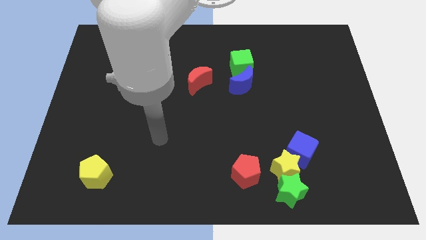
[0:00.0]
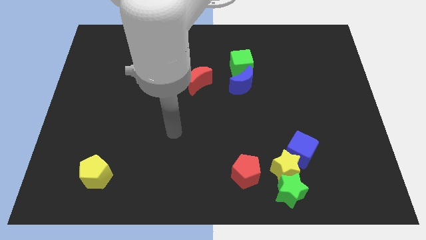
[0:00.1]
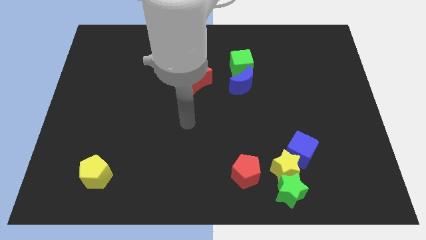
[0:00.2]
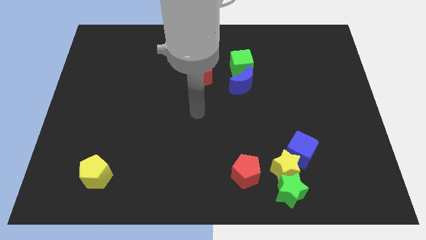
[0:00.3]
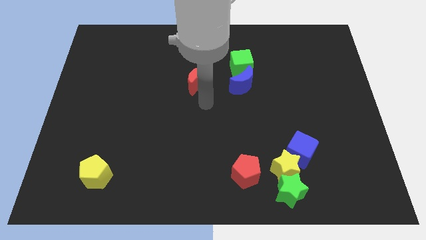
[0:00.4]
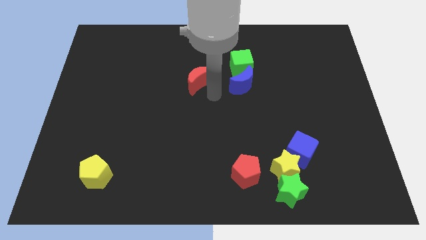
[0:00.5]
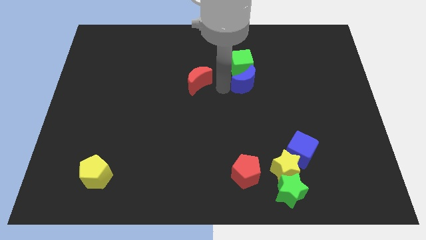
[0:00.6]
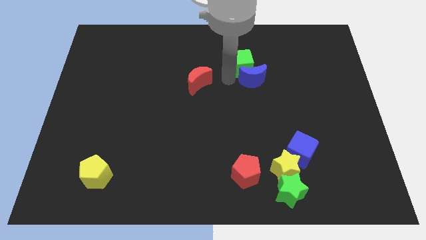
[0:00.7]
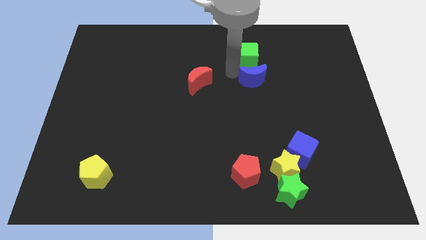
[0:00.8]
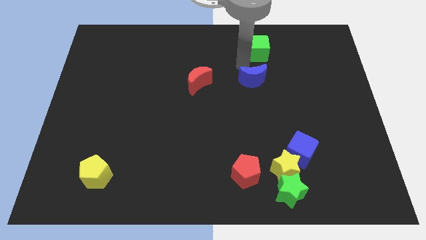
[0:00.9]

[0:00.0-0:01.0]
move the blue moon away from the green cube

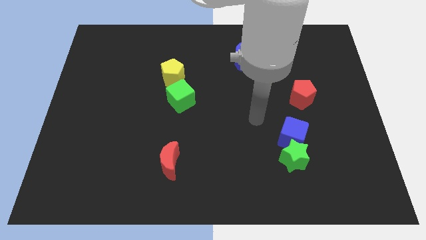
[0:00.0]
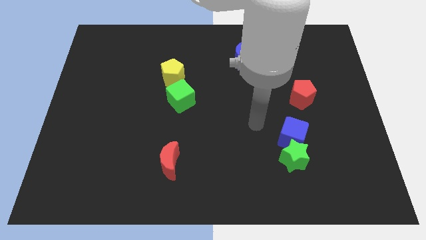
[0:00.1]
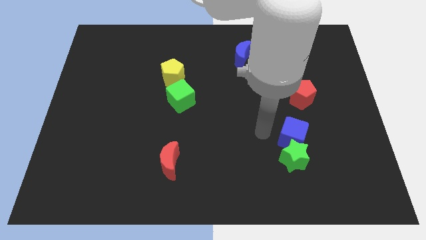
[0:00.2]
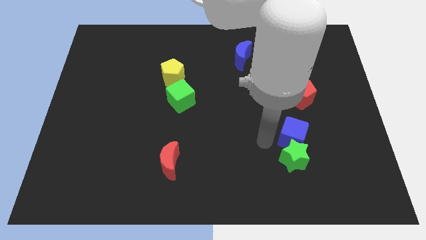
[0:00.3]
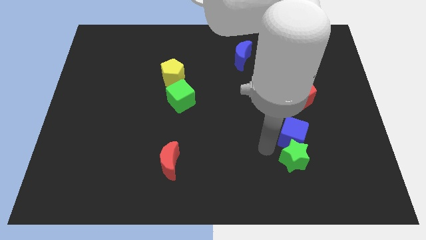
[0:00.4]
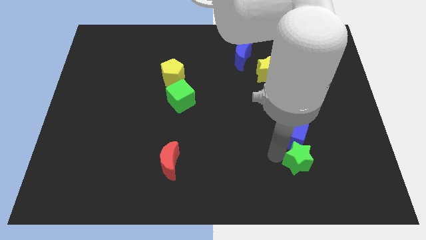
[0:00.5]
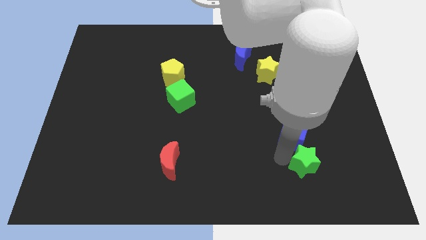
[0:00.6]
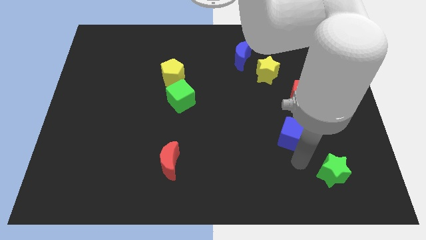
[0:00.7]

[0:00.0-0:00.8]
separate the blue cube from the green star

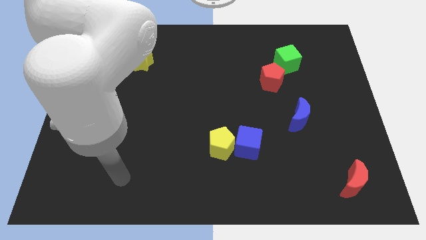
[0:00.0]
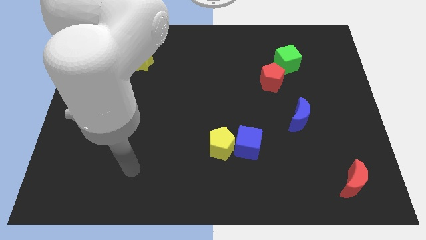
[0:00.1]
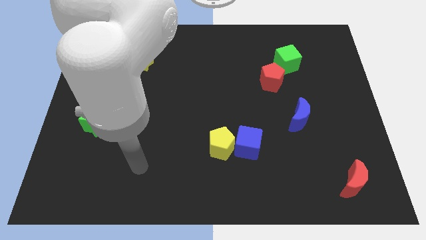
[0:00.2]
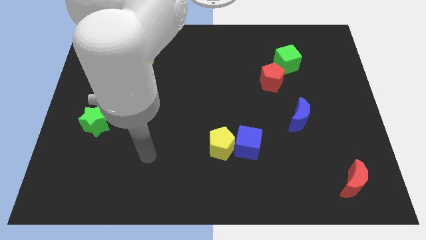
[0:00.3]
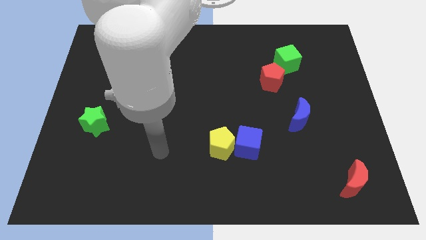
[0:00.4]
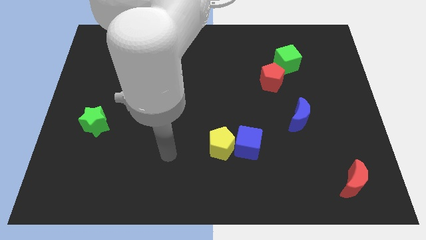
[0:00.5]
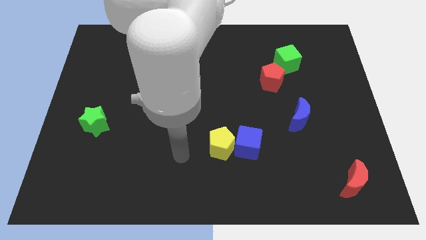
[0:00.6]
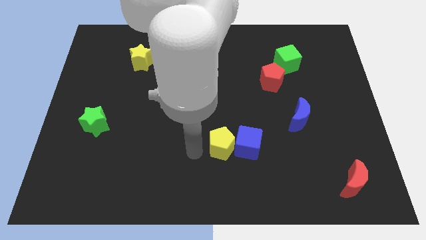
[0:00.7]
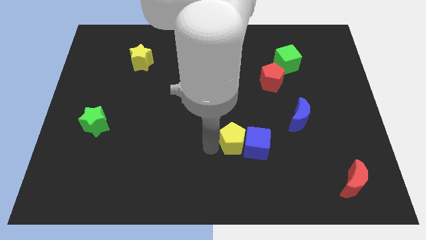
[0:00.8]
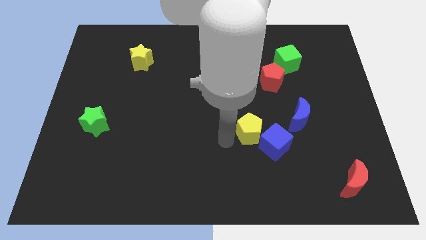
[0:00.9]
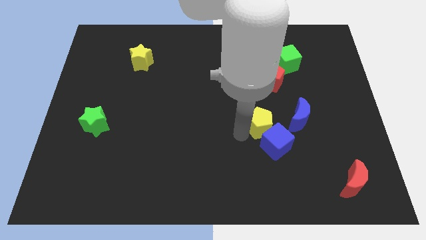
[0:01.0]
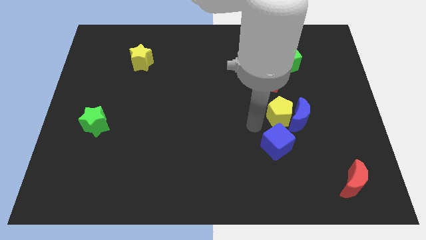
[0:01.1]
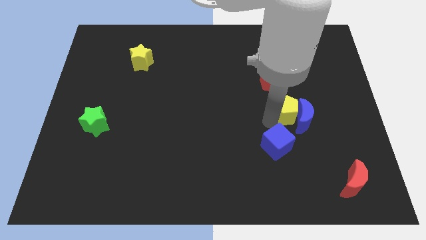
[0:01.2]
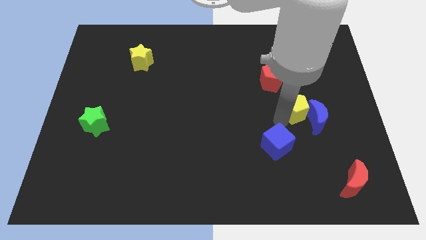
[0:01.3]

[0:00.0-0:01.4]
pull the blue cube apart from the yellow pentagon

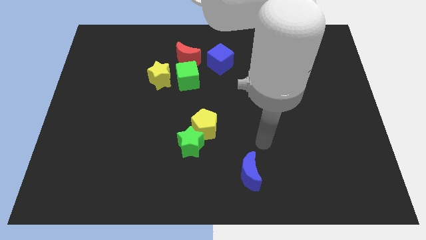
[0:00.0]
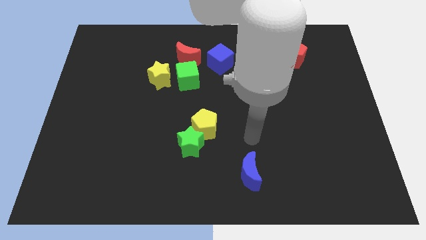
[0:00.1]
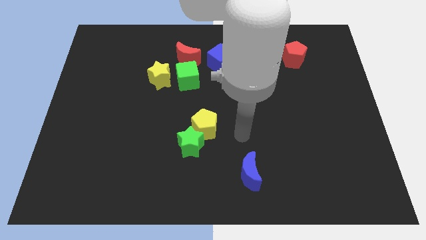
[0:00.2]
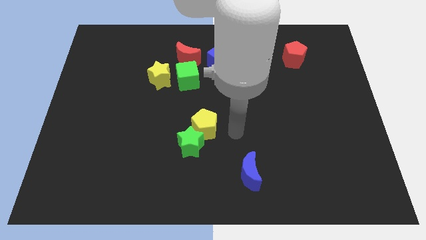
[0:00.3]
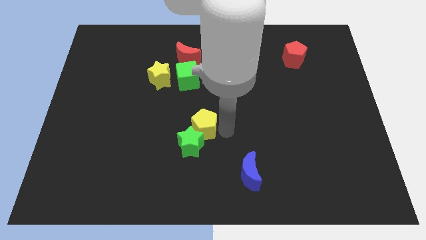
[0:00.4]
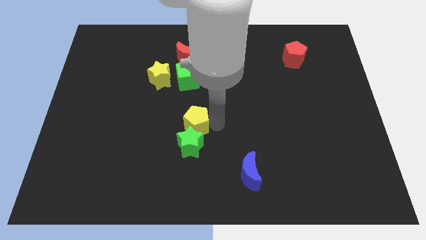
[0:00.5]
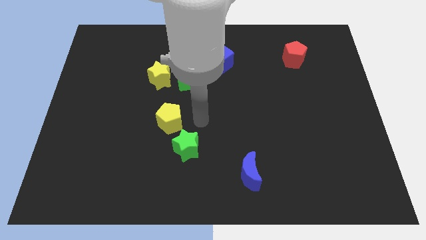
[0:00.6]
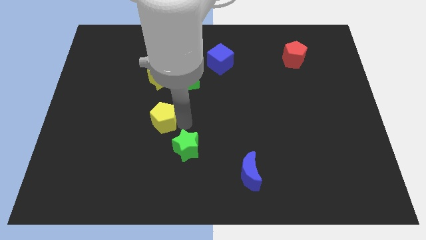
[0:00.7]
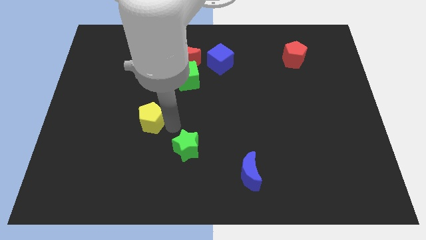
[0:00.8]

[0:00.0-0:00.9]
separate the green star from the yellow pentagon

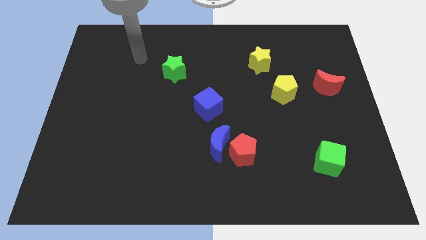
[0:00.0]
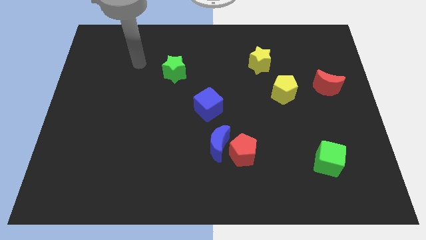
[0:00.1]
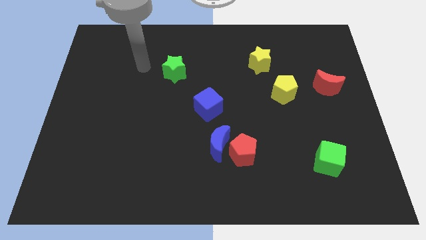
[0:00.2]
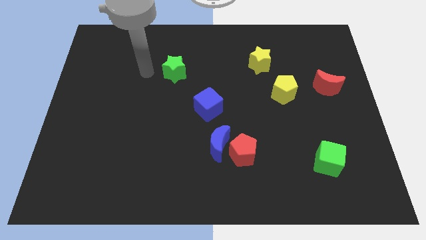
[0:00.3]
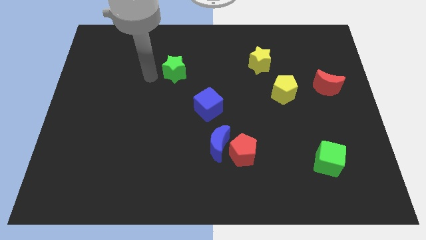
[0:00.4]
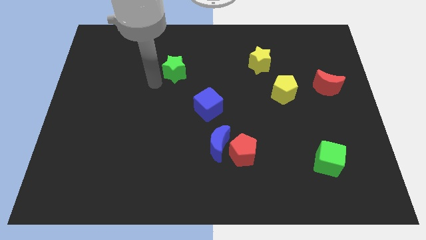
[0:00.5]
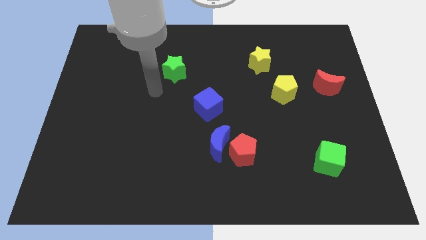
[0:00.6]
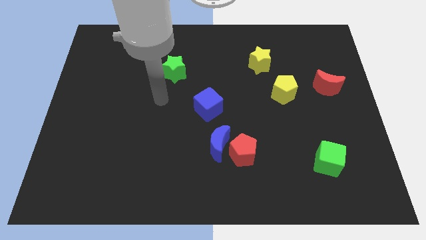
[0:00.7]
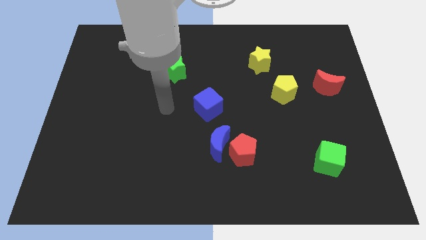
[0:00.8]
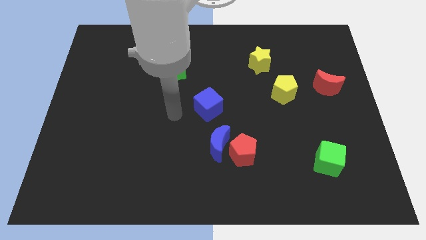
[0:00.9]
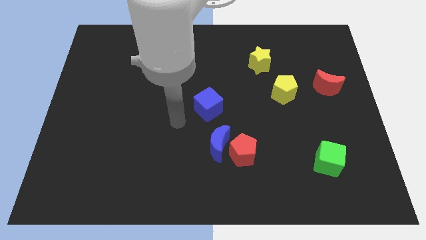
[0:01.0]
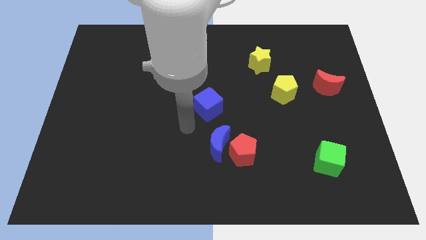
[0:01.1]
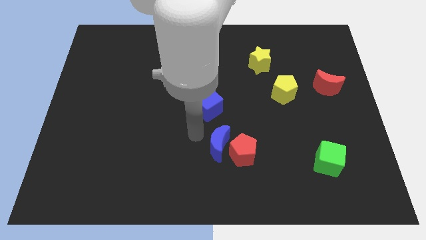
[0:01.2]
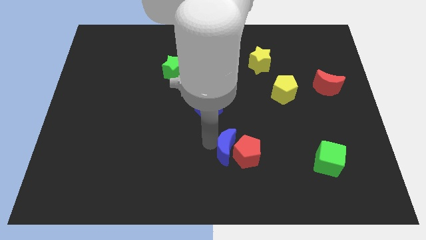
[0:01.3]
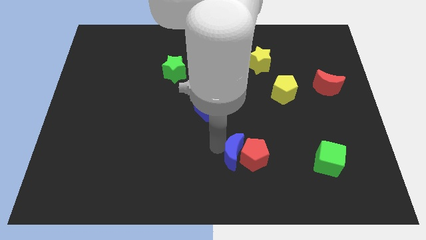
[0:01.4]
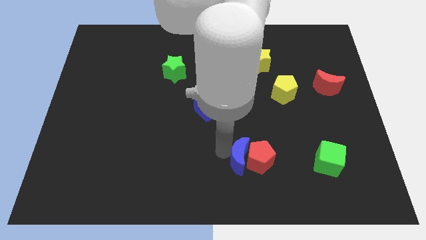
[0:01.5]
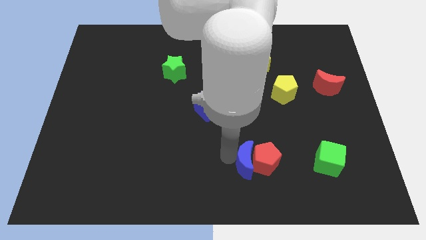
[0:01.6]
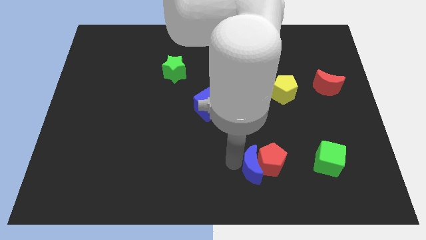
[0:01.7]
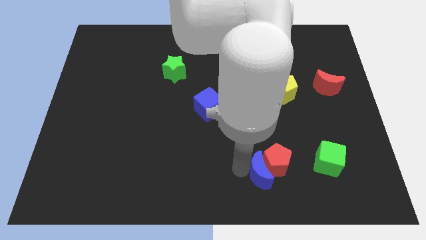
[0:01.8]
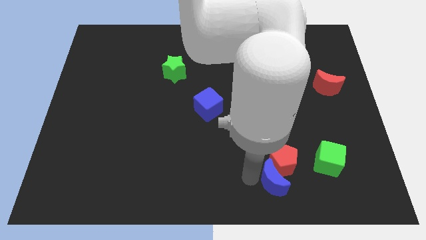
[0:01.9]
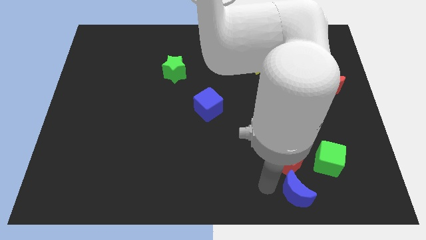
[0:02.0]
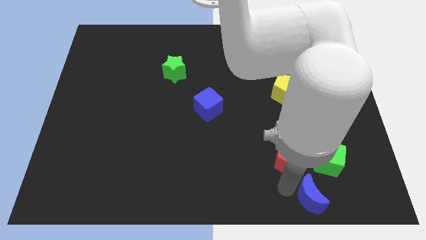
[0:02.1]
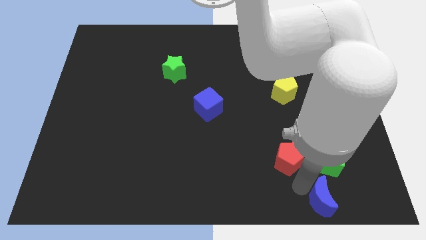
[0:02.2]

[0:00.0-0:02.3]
pull the red pentagon apart from the blue moon

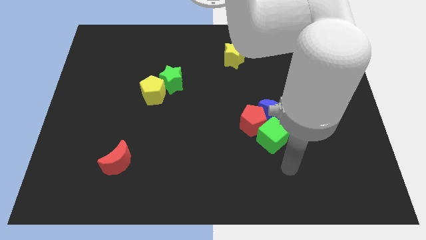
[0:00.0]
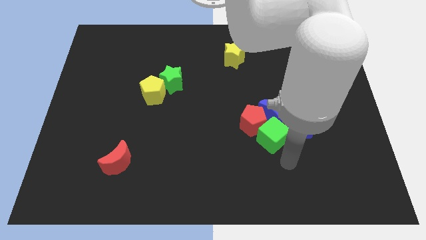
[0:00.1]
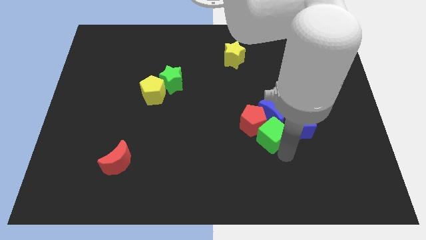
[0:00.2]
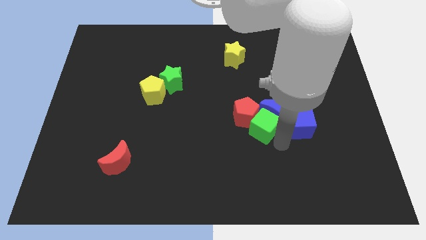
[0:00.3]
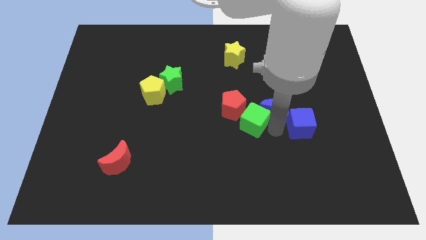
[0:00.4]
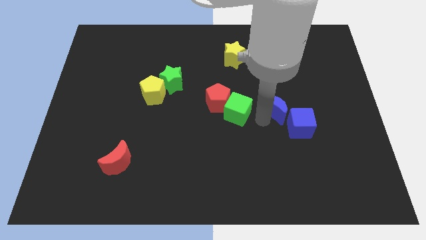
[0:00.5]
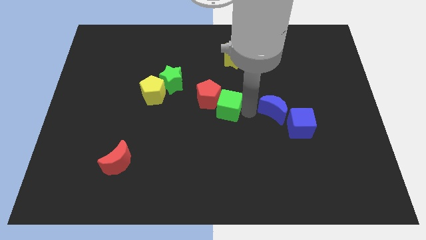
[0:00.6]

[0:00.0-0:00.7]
separate the red pentagon from the blue moon and green cube

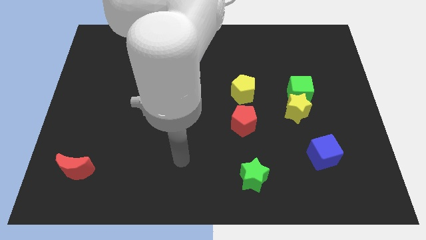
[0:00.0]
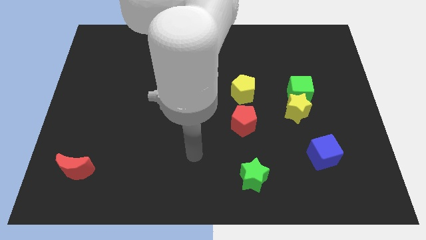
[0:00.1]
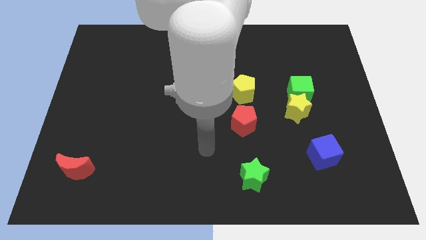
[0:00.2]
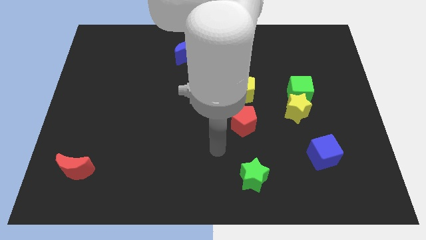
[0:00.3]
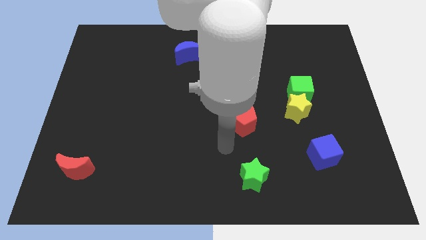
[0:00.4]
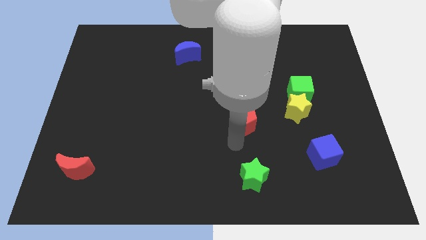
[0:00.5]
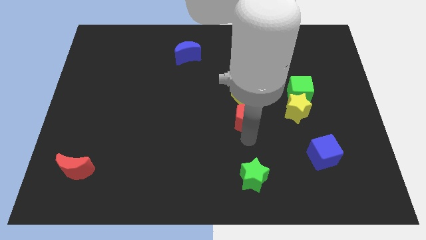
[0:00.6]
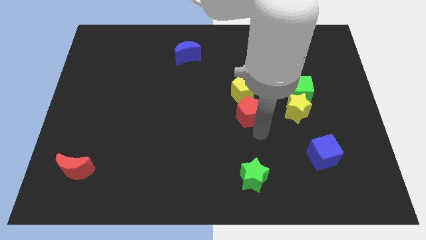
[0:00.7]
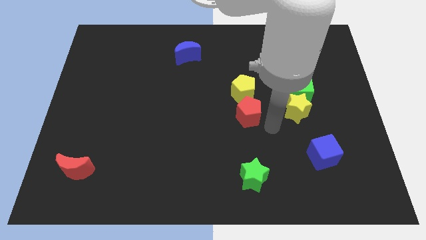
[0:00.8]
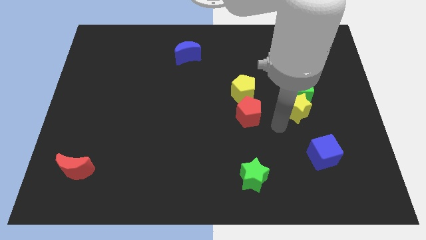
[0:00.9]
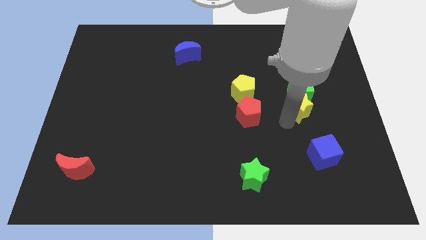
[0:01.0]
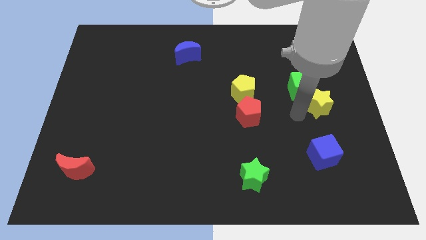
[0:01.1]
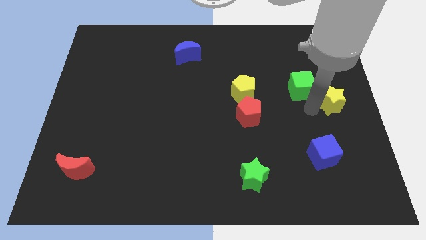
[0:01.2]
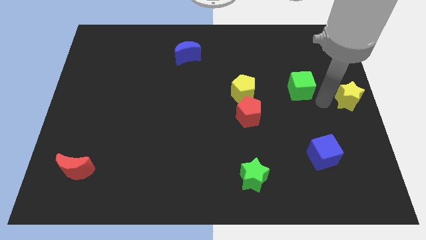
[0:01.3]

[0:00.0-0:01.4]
separate the green cube from the yellow star

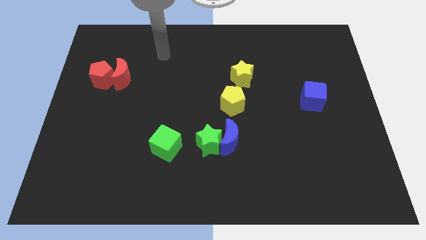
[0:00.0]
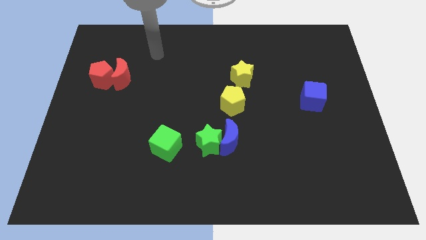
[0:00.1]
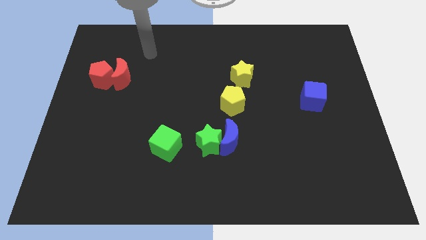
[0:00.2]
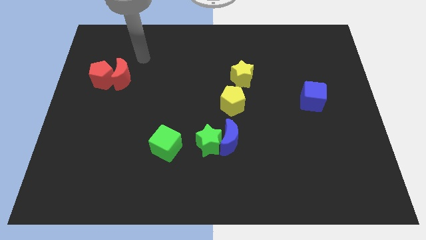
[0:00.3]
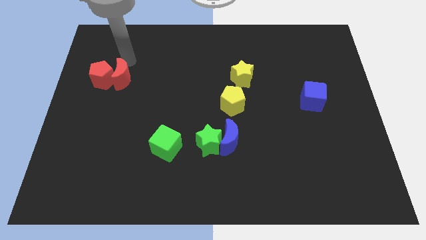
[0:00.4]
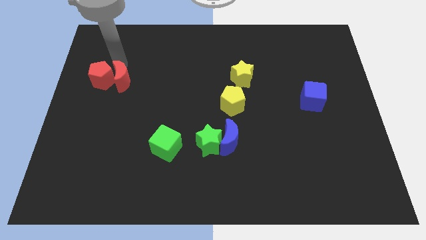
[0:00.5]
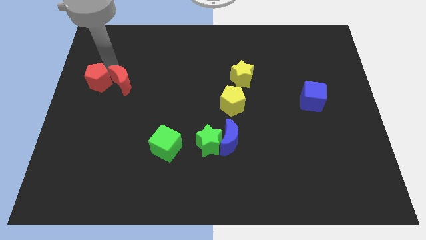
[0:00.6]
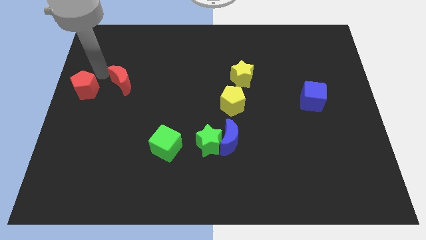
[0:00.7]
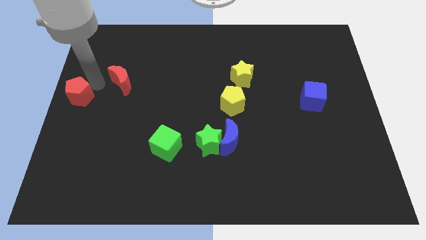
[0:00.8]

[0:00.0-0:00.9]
move the red moon away from the red pentagon
